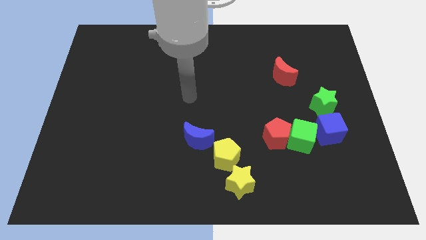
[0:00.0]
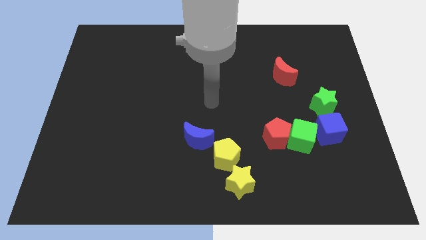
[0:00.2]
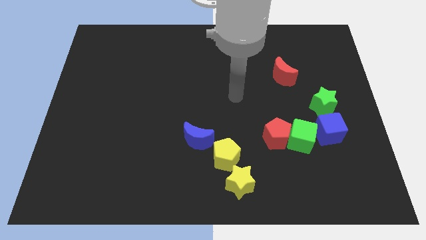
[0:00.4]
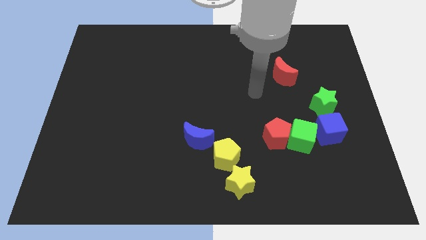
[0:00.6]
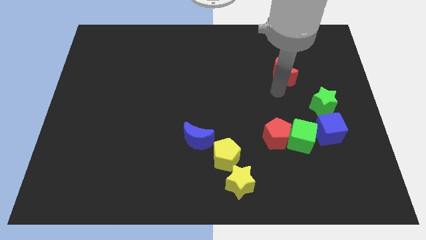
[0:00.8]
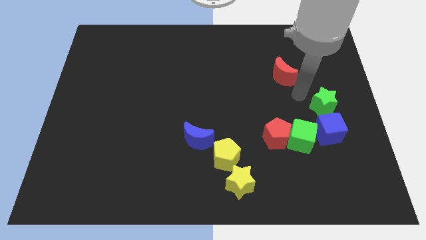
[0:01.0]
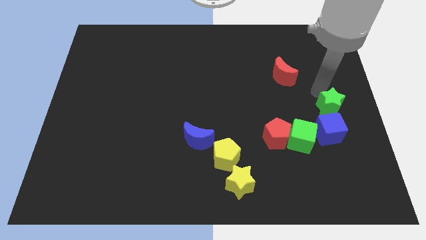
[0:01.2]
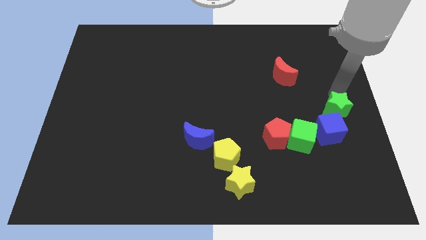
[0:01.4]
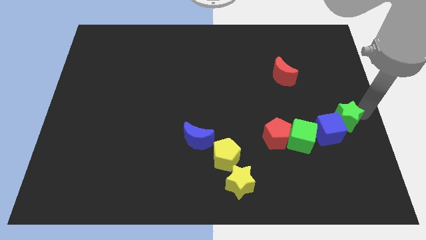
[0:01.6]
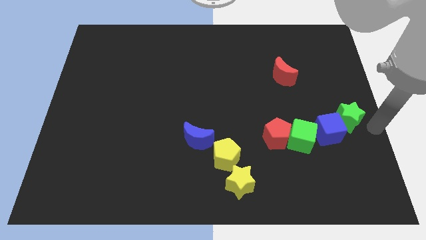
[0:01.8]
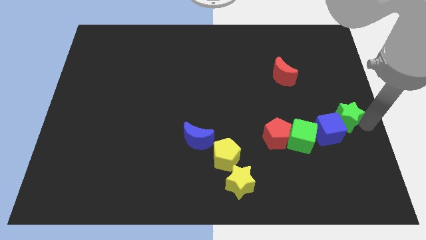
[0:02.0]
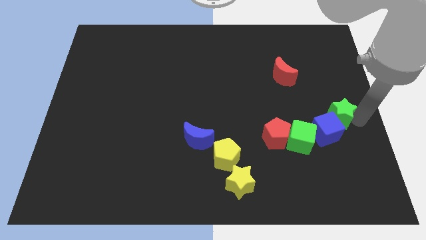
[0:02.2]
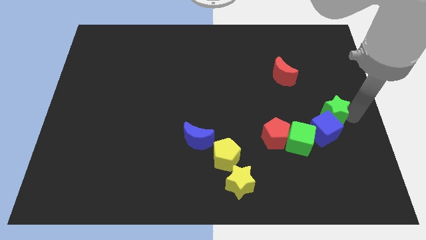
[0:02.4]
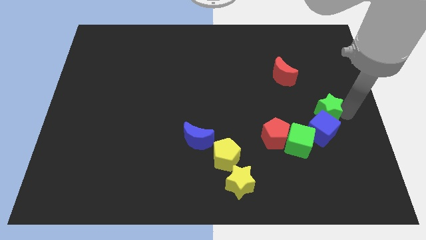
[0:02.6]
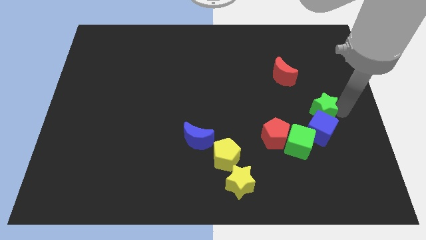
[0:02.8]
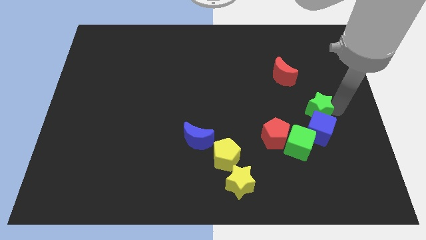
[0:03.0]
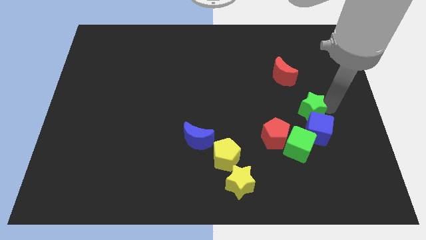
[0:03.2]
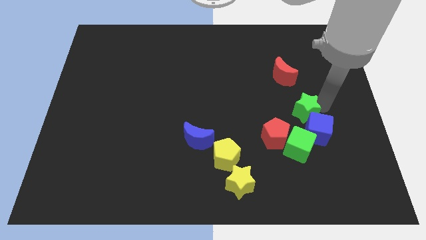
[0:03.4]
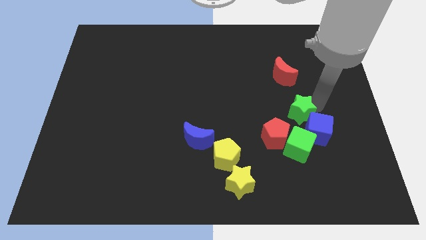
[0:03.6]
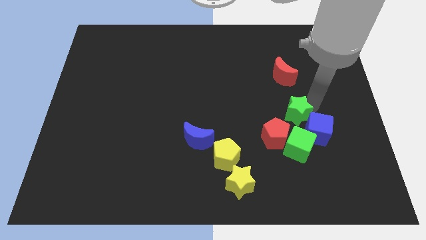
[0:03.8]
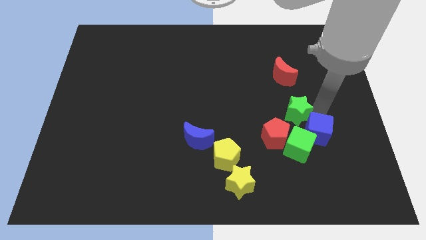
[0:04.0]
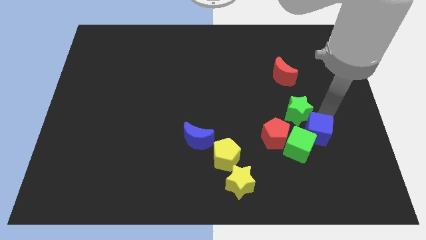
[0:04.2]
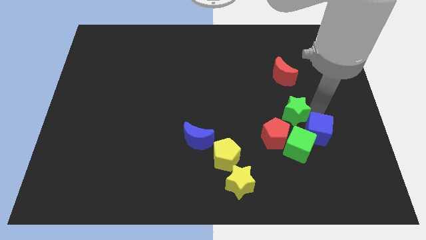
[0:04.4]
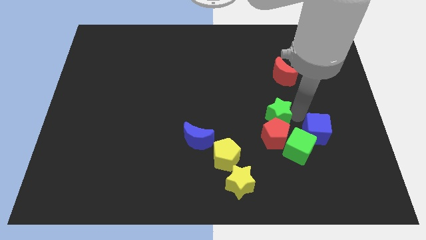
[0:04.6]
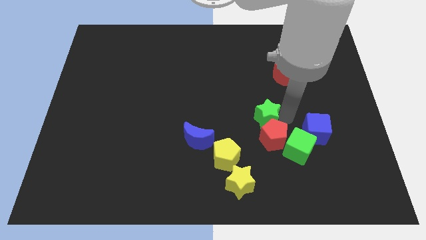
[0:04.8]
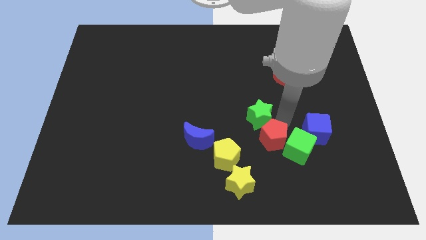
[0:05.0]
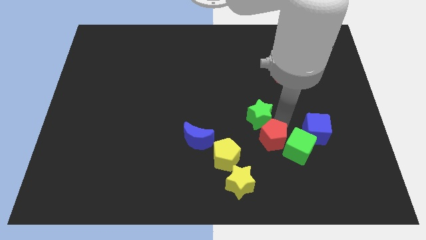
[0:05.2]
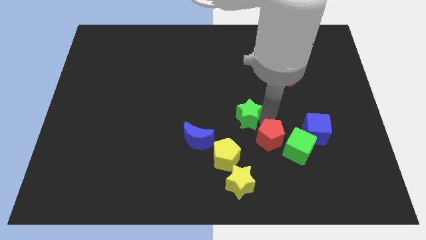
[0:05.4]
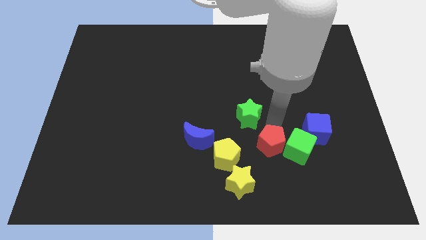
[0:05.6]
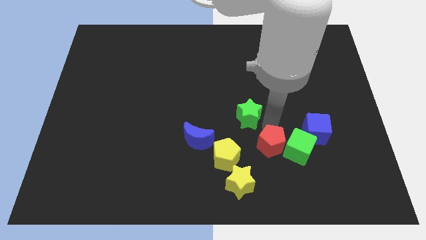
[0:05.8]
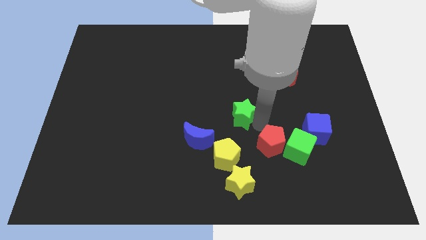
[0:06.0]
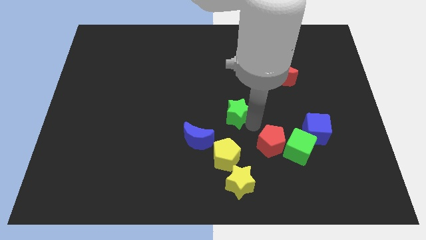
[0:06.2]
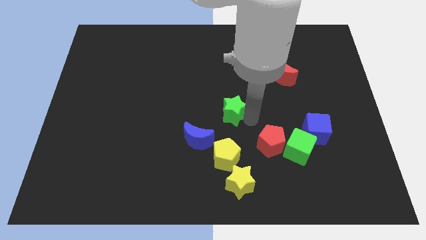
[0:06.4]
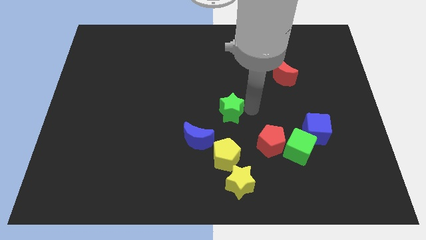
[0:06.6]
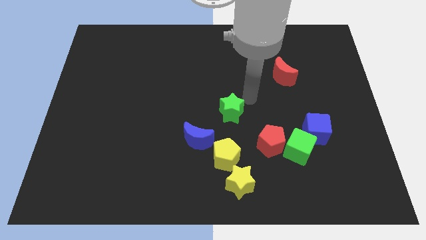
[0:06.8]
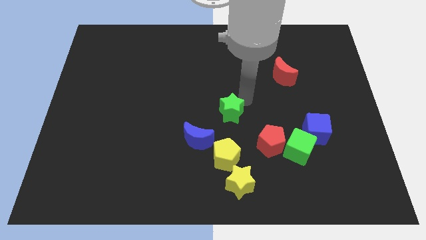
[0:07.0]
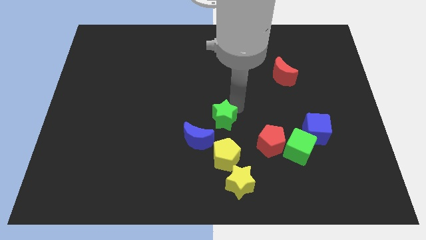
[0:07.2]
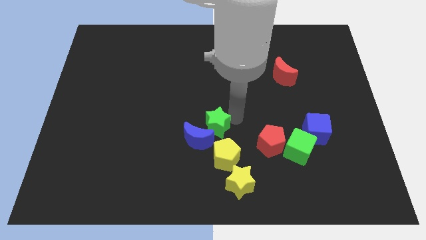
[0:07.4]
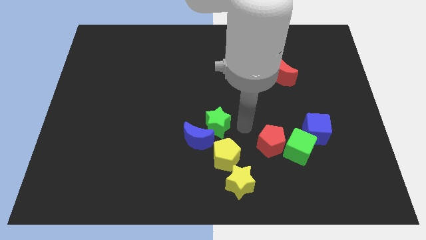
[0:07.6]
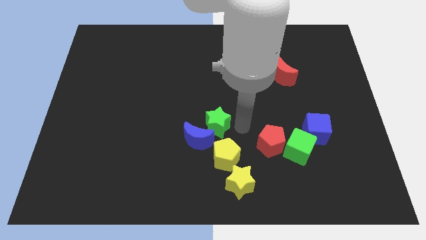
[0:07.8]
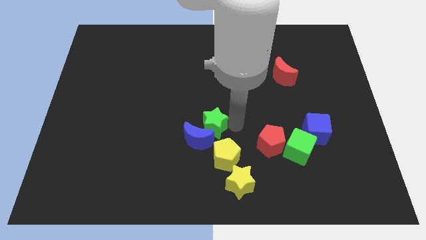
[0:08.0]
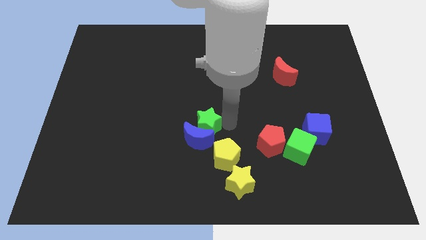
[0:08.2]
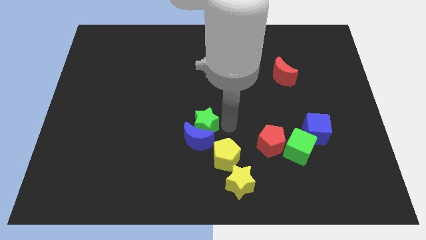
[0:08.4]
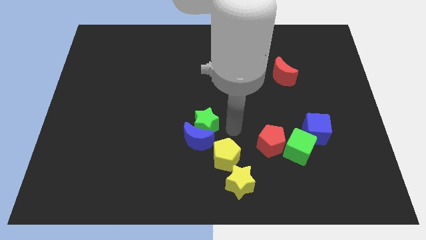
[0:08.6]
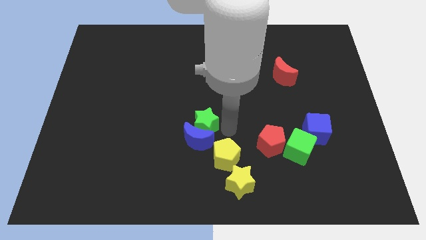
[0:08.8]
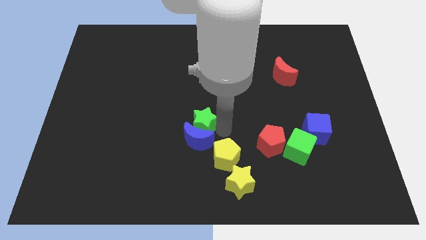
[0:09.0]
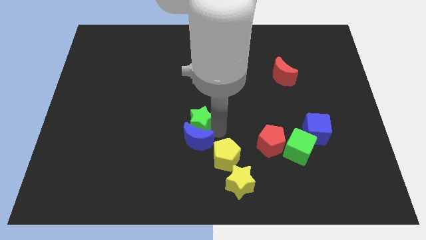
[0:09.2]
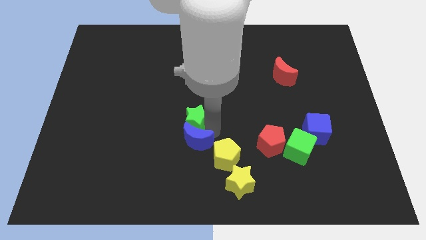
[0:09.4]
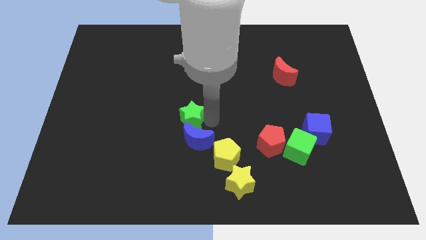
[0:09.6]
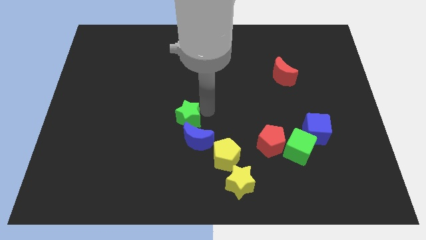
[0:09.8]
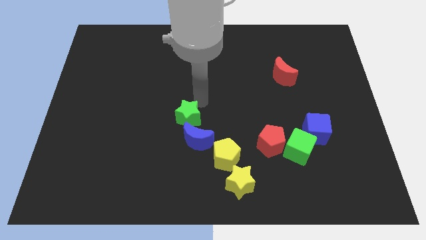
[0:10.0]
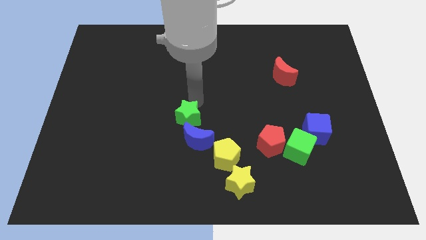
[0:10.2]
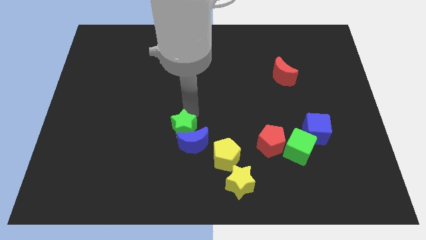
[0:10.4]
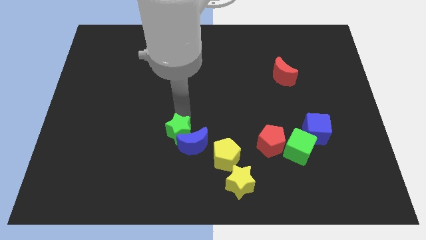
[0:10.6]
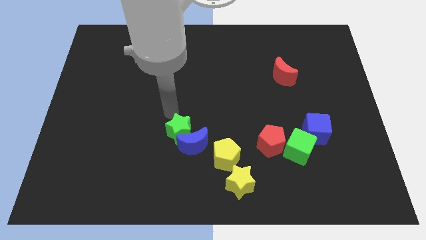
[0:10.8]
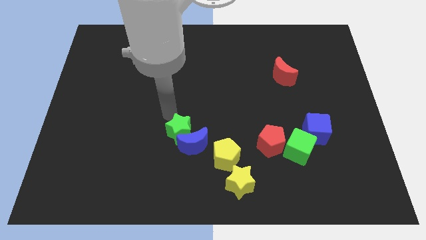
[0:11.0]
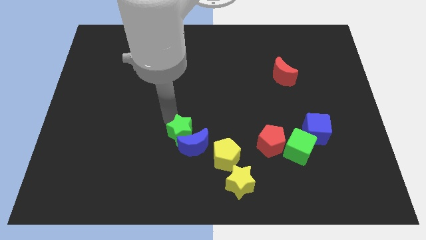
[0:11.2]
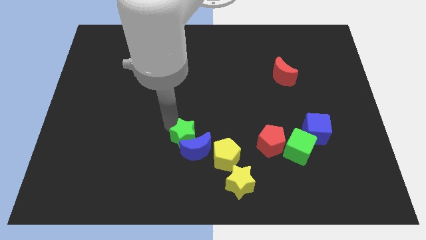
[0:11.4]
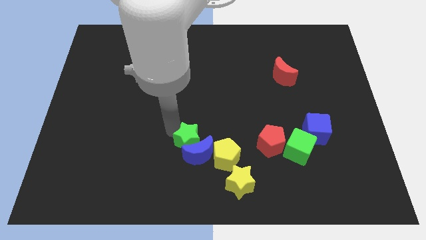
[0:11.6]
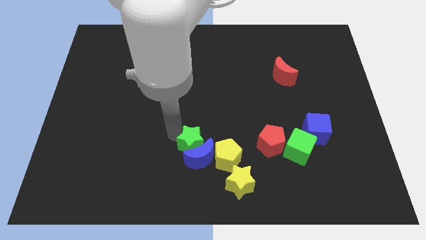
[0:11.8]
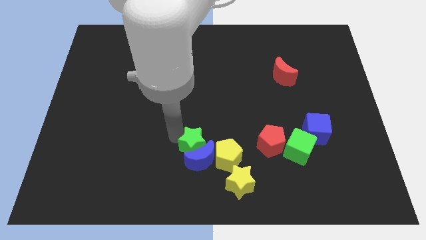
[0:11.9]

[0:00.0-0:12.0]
slide the green star diagonally up and to the left of the yellow star

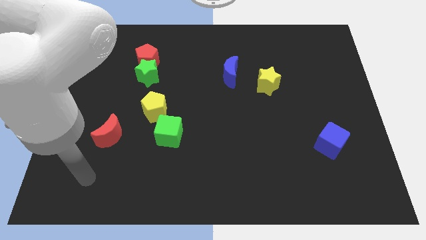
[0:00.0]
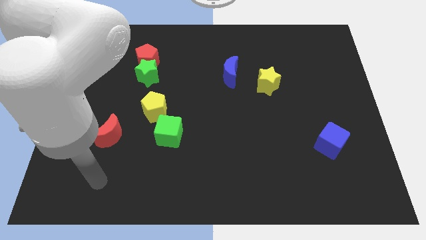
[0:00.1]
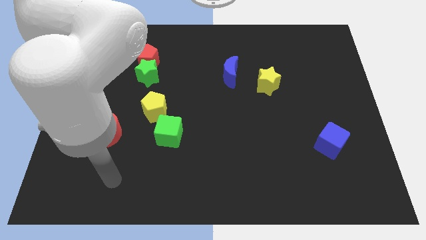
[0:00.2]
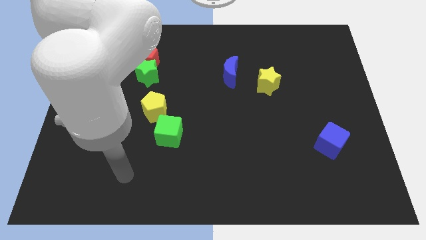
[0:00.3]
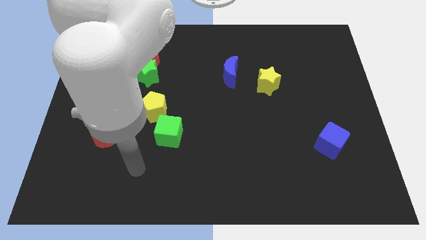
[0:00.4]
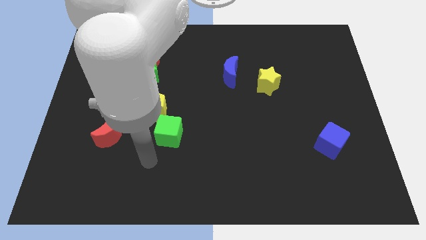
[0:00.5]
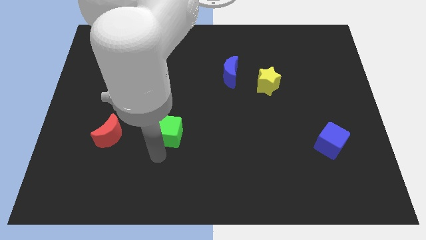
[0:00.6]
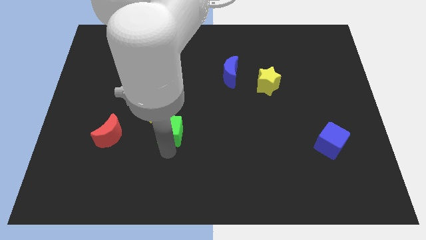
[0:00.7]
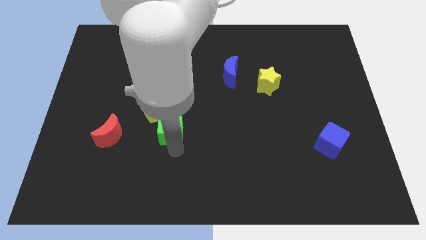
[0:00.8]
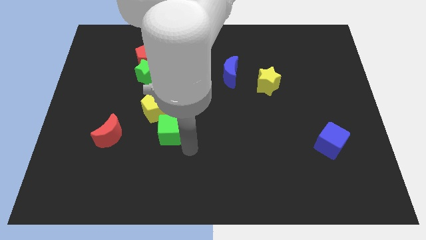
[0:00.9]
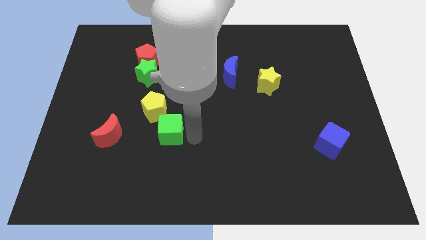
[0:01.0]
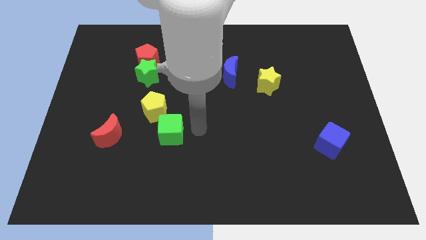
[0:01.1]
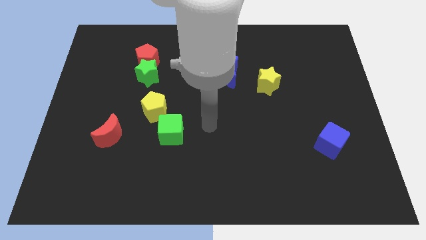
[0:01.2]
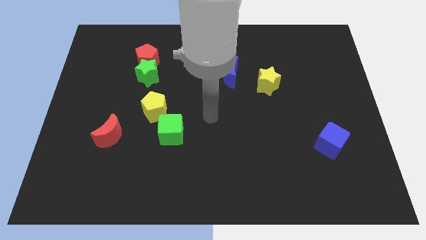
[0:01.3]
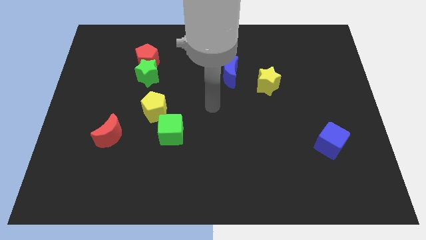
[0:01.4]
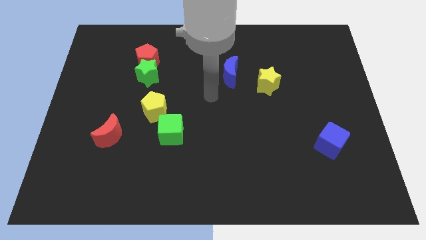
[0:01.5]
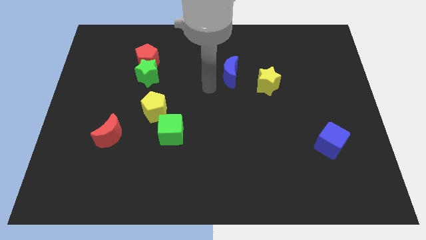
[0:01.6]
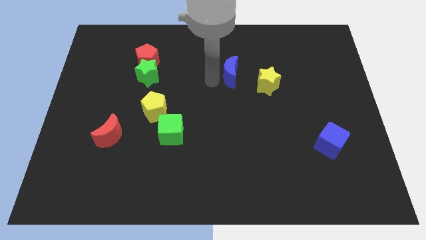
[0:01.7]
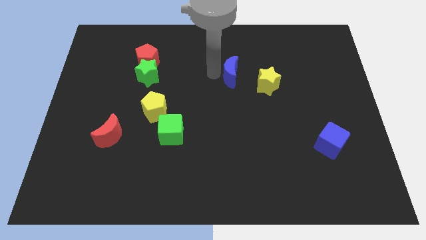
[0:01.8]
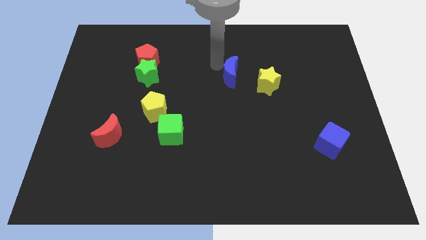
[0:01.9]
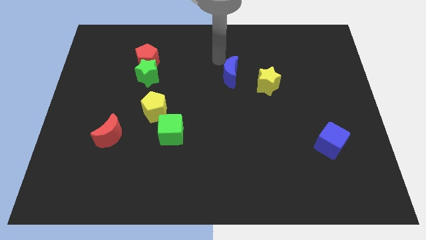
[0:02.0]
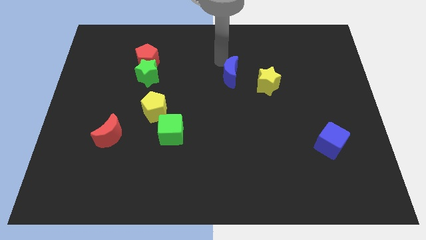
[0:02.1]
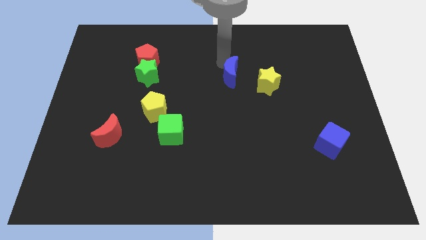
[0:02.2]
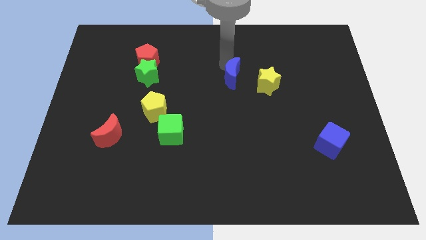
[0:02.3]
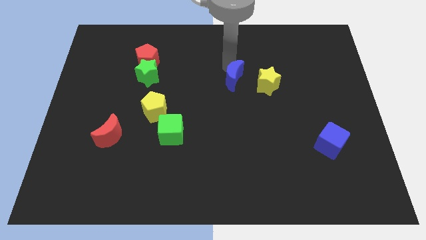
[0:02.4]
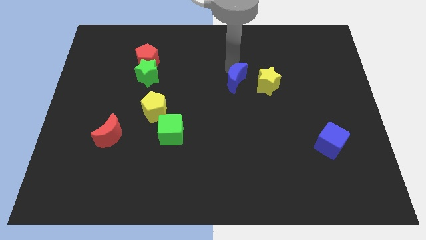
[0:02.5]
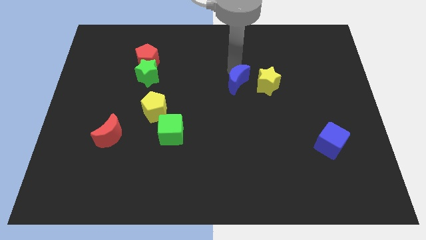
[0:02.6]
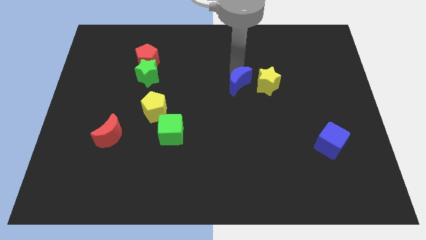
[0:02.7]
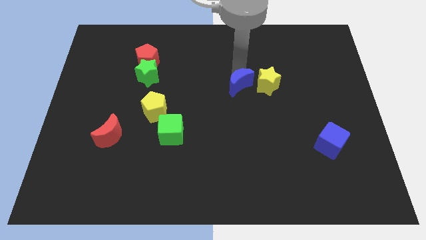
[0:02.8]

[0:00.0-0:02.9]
move the blue moon to the bottom left of the yellow star
